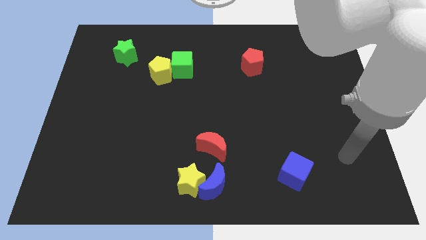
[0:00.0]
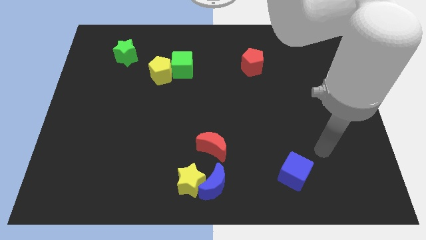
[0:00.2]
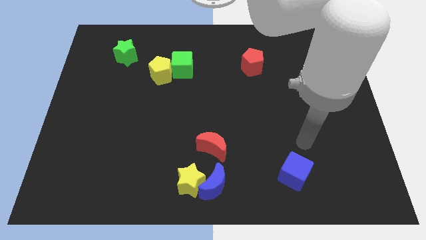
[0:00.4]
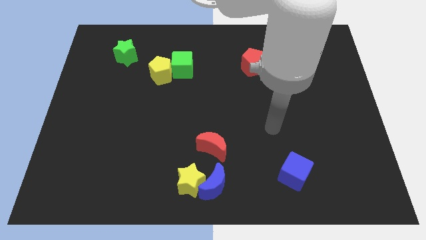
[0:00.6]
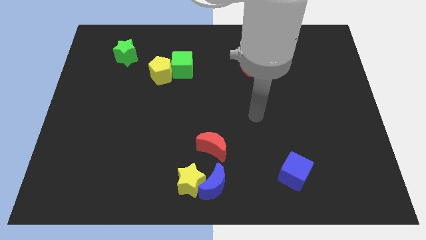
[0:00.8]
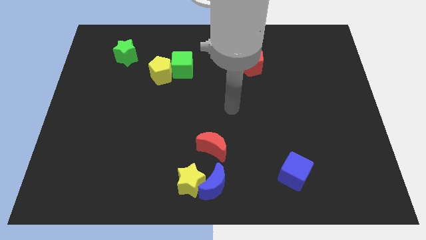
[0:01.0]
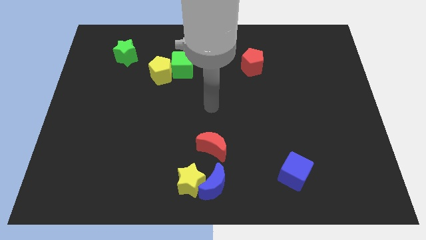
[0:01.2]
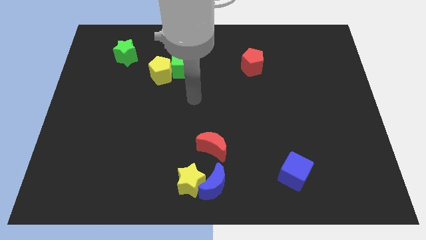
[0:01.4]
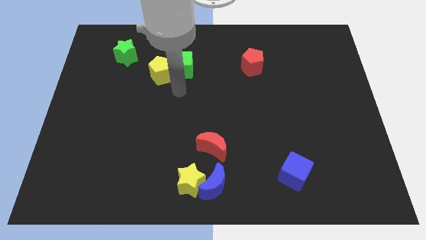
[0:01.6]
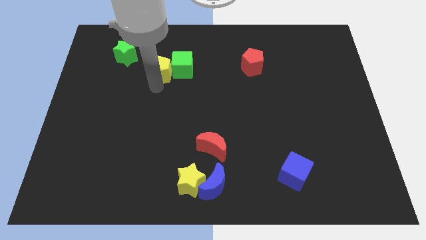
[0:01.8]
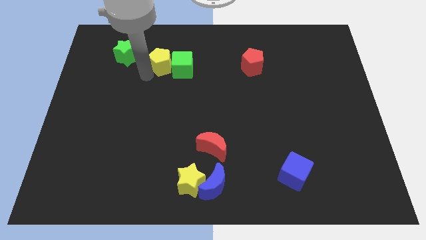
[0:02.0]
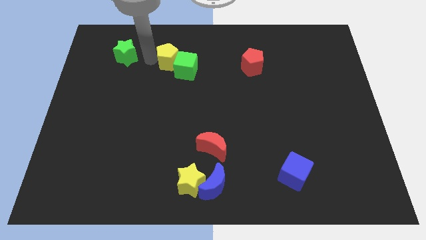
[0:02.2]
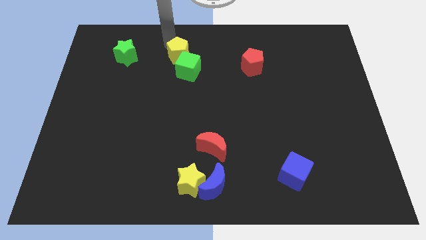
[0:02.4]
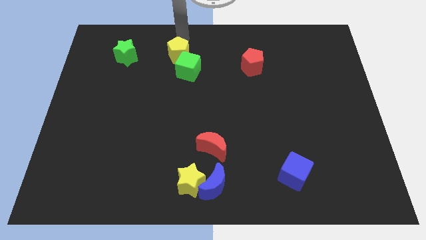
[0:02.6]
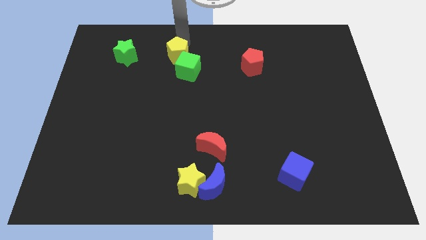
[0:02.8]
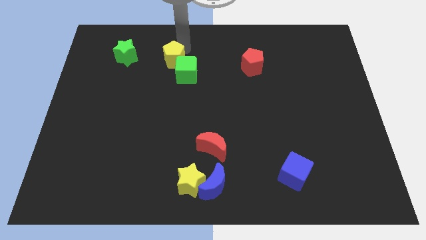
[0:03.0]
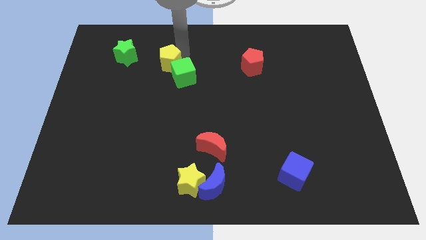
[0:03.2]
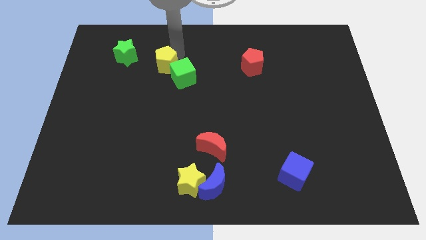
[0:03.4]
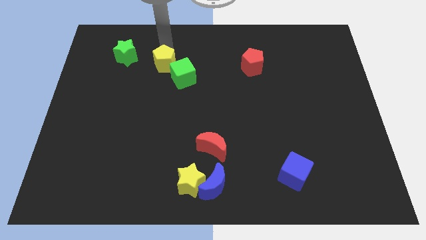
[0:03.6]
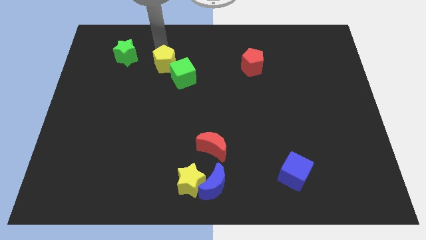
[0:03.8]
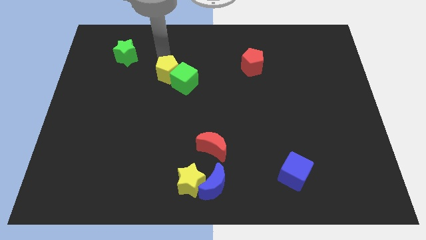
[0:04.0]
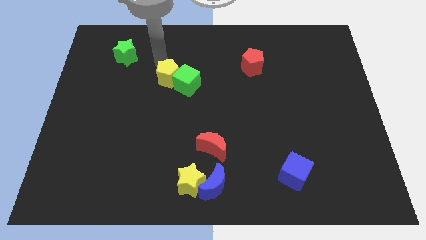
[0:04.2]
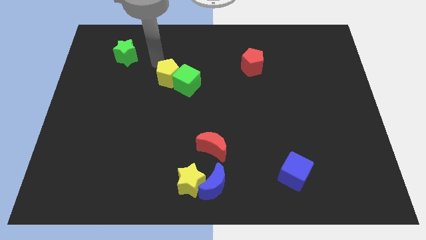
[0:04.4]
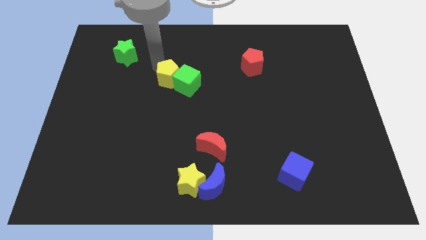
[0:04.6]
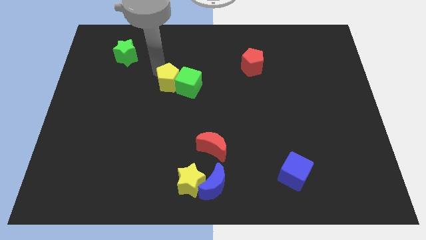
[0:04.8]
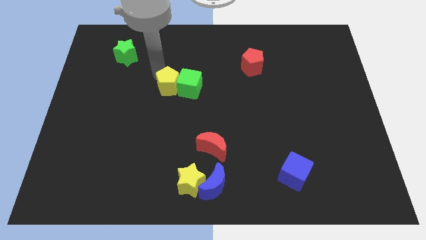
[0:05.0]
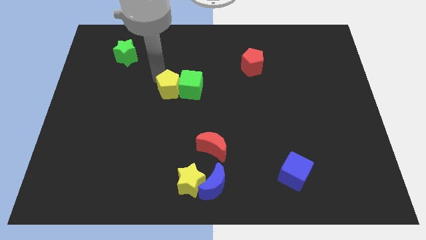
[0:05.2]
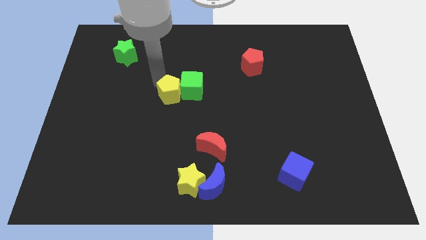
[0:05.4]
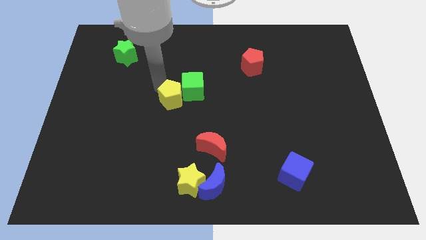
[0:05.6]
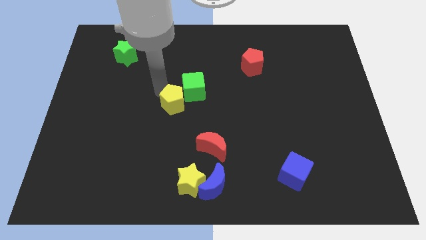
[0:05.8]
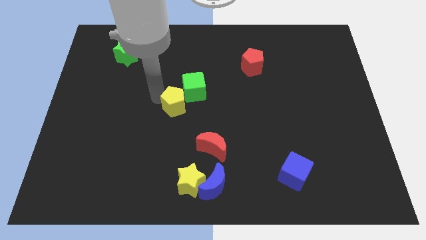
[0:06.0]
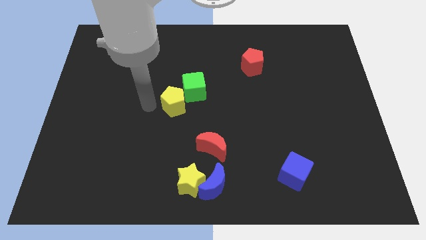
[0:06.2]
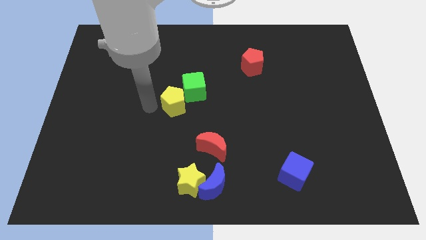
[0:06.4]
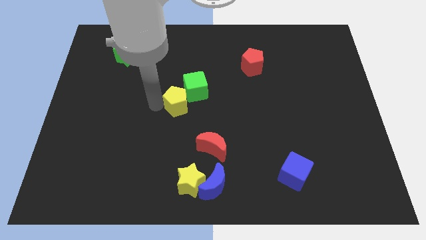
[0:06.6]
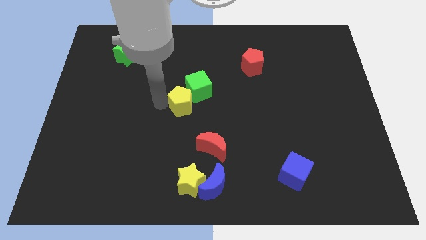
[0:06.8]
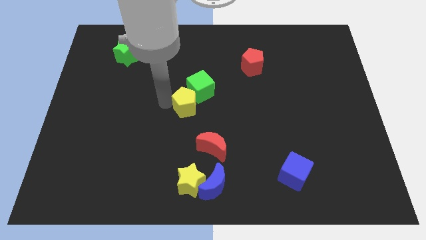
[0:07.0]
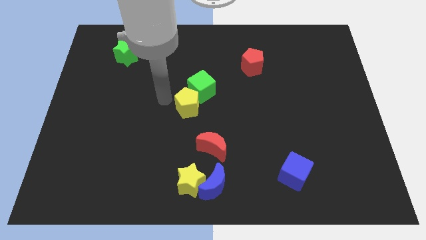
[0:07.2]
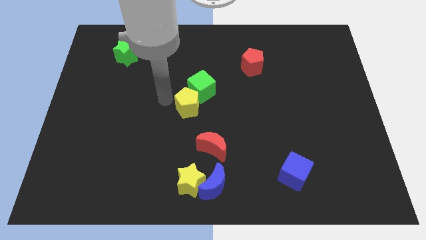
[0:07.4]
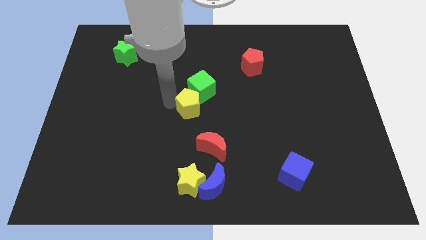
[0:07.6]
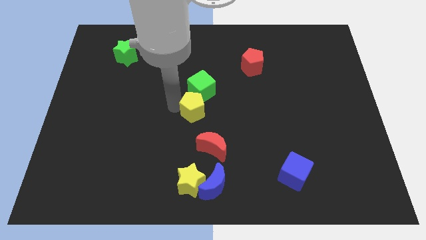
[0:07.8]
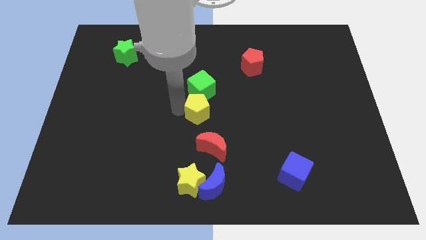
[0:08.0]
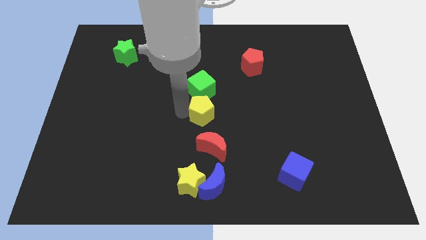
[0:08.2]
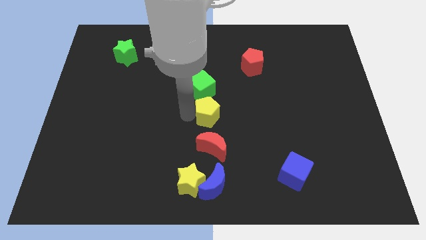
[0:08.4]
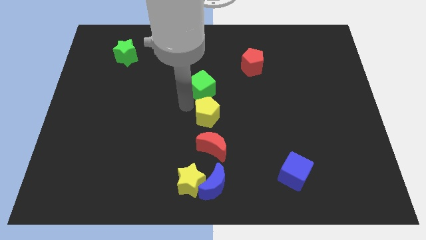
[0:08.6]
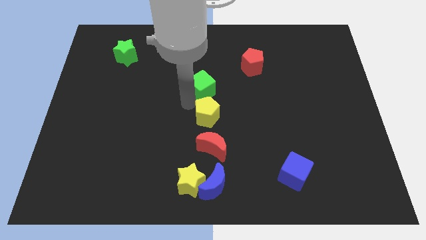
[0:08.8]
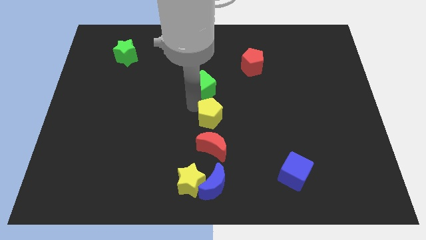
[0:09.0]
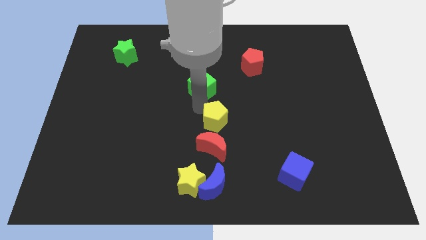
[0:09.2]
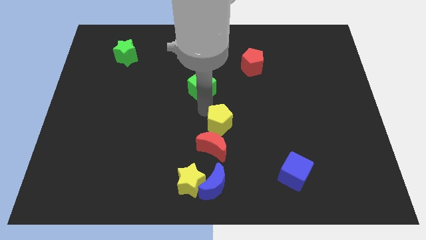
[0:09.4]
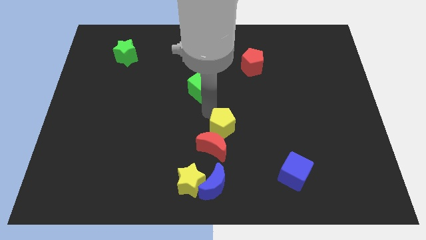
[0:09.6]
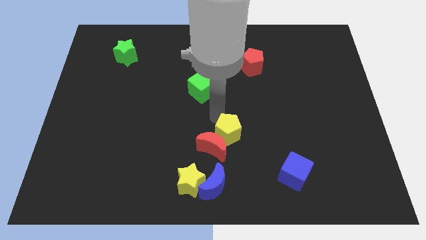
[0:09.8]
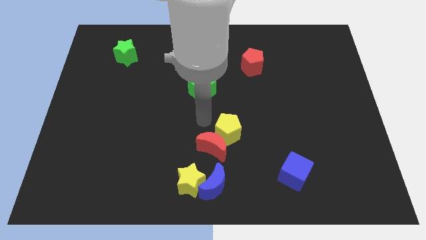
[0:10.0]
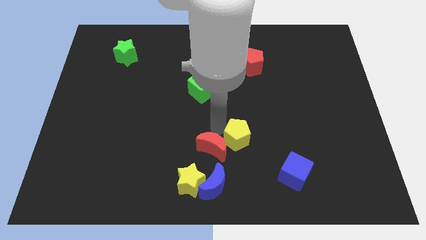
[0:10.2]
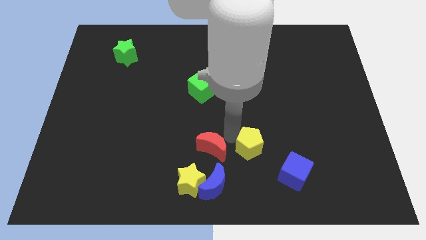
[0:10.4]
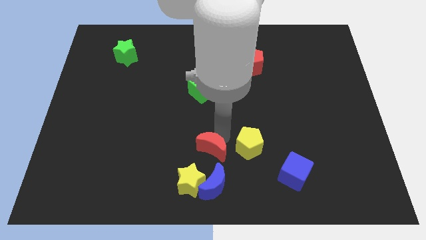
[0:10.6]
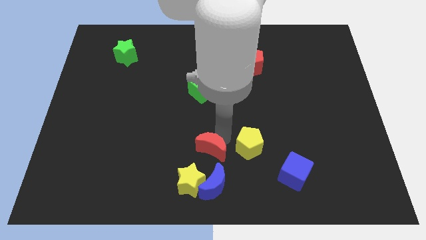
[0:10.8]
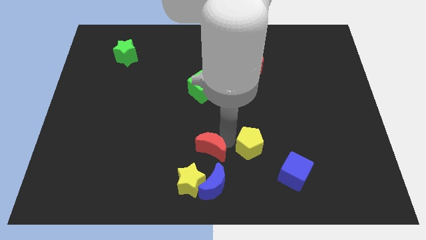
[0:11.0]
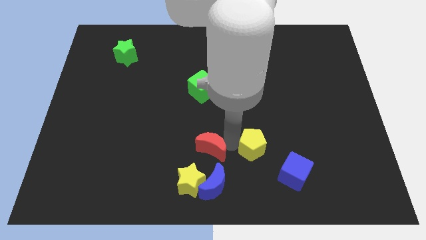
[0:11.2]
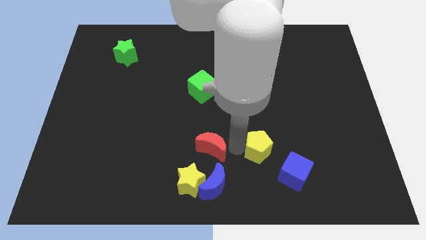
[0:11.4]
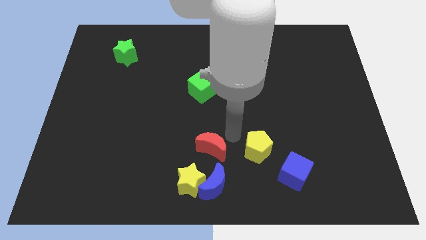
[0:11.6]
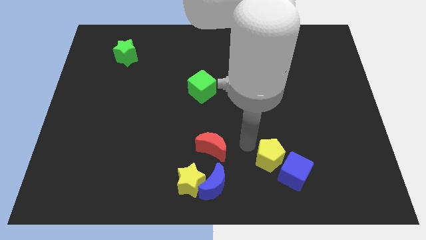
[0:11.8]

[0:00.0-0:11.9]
put the yellow pentagon towards the blue cube

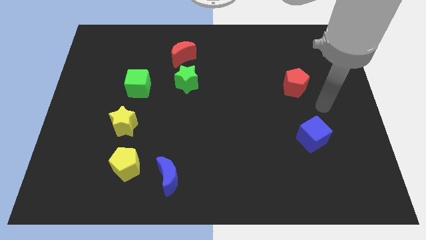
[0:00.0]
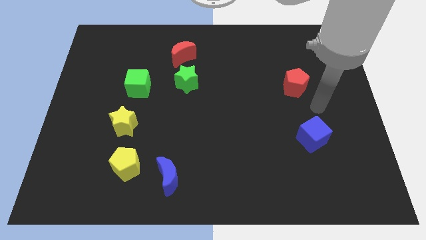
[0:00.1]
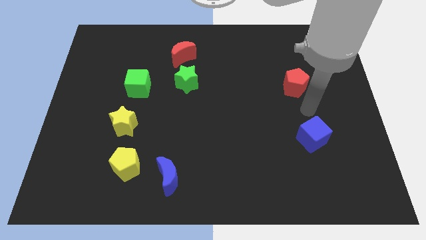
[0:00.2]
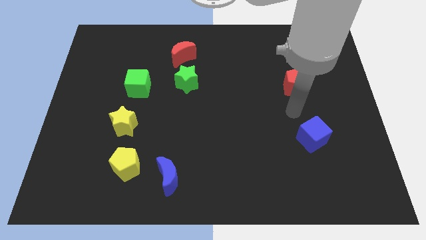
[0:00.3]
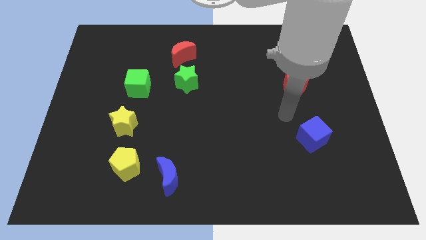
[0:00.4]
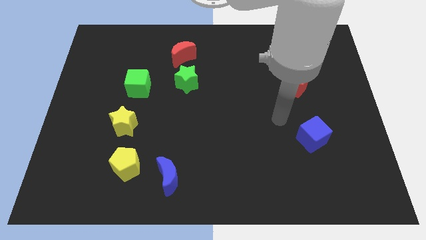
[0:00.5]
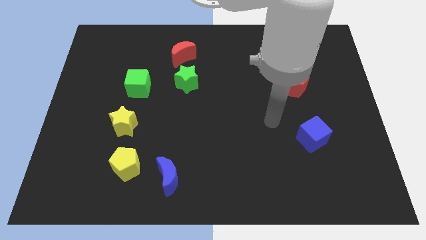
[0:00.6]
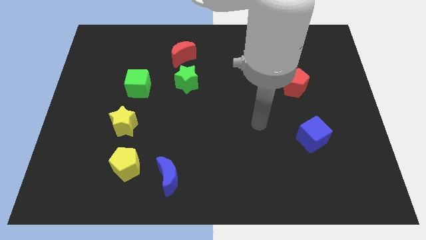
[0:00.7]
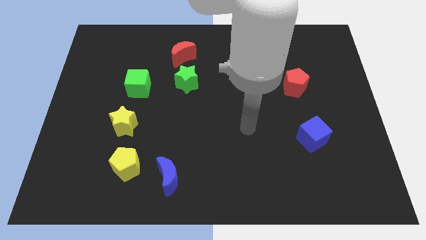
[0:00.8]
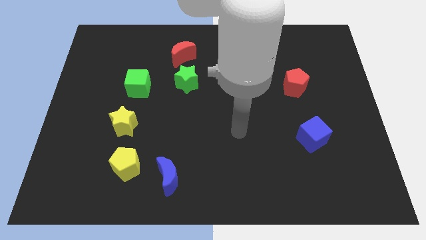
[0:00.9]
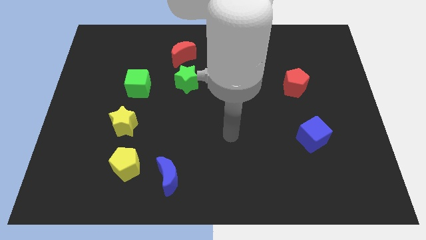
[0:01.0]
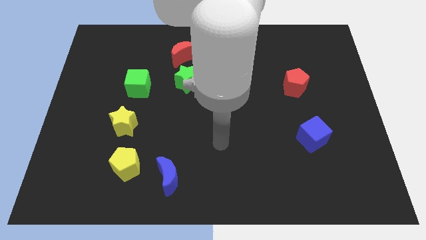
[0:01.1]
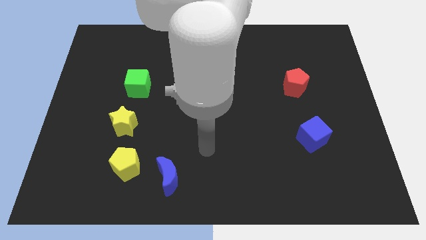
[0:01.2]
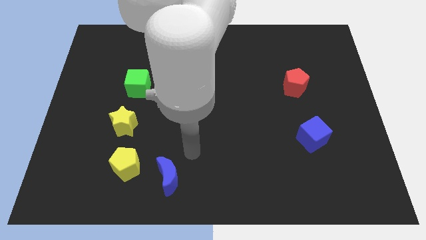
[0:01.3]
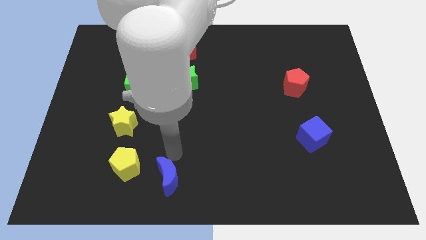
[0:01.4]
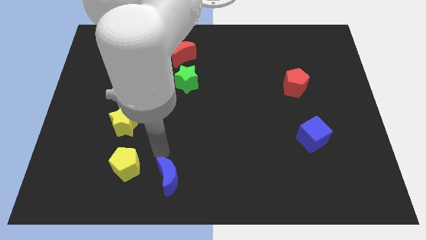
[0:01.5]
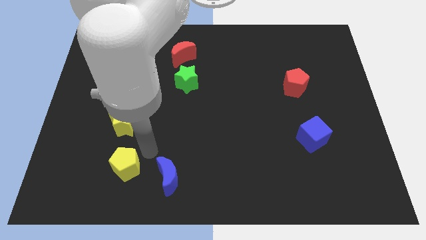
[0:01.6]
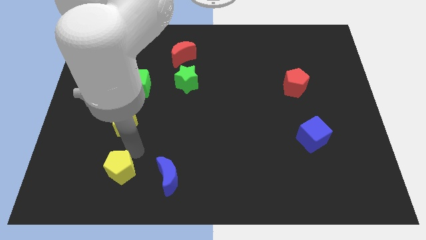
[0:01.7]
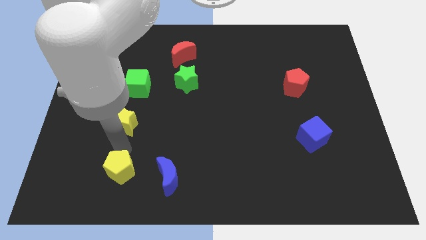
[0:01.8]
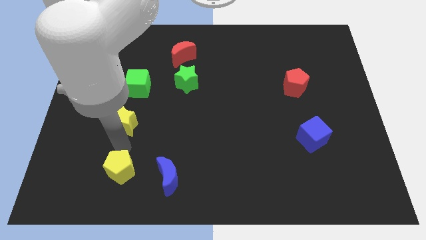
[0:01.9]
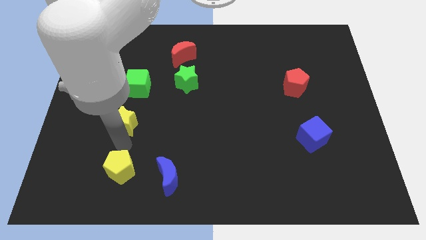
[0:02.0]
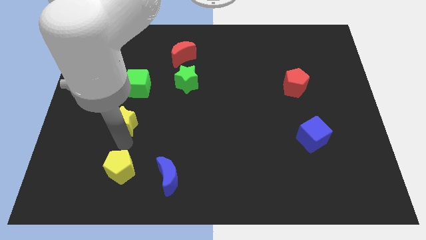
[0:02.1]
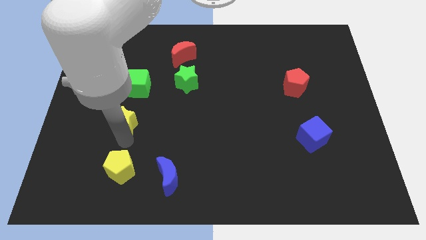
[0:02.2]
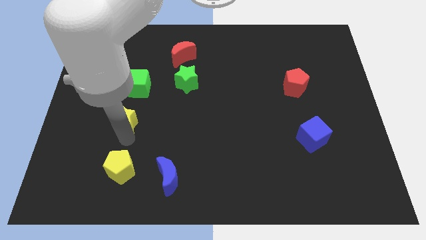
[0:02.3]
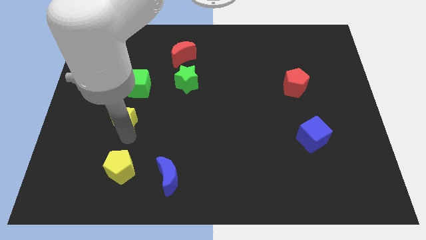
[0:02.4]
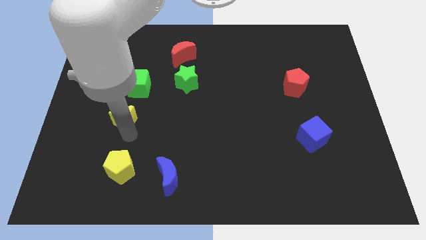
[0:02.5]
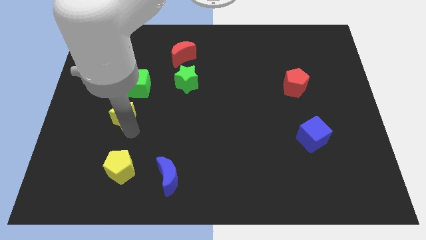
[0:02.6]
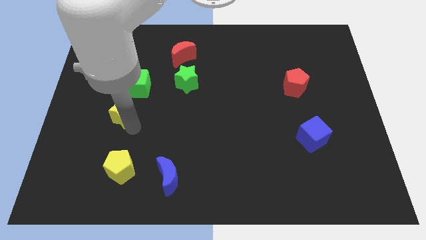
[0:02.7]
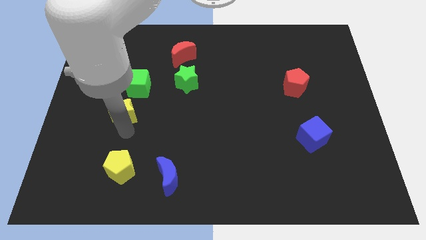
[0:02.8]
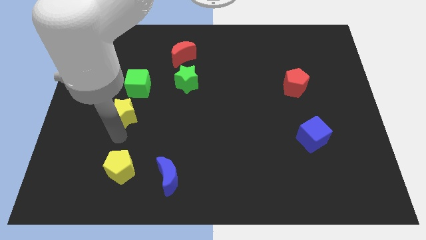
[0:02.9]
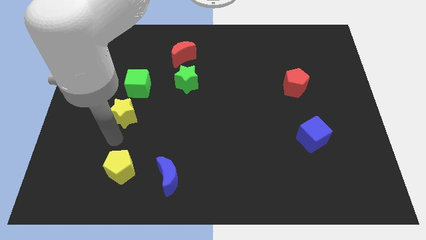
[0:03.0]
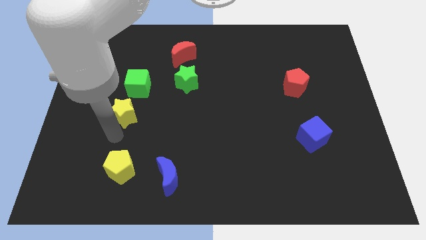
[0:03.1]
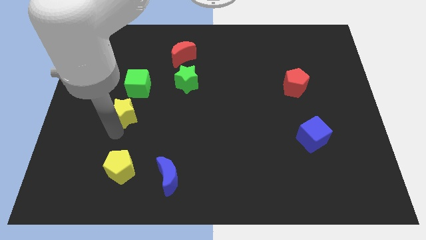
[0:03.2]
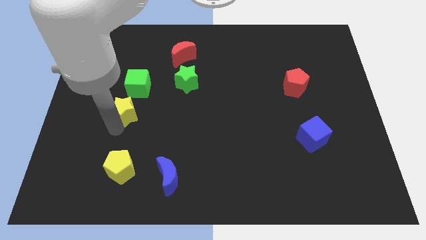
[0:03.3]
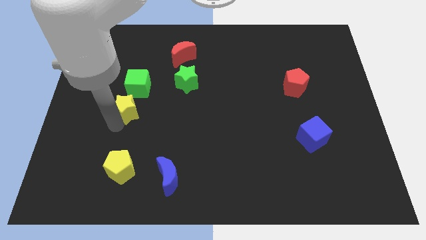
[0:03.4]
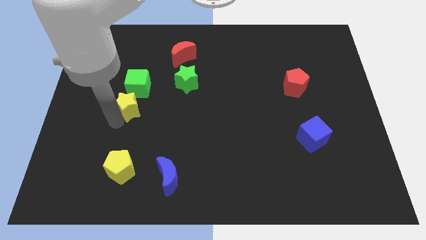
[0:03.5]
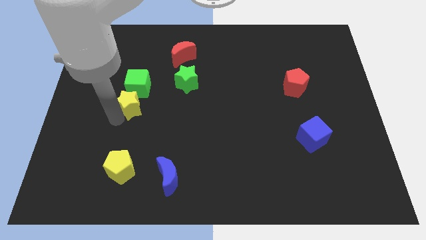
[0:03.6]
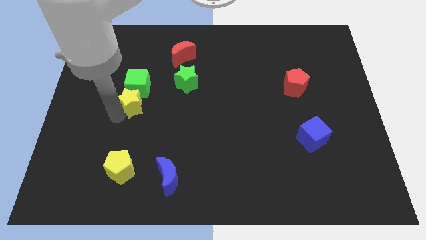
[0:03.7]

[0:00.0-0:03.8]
move the yellow star to the green cube
